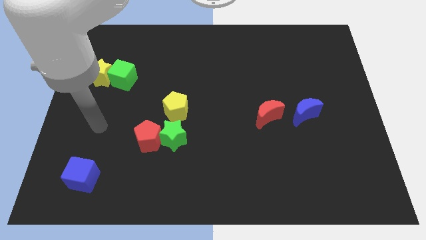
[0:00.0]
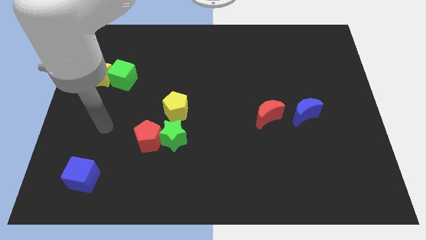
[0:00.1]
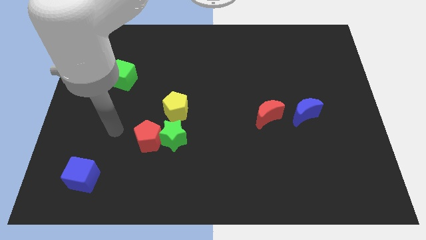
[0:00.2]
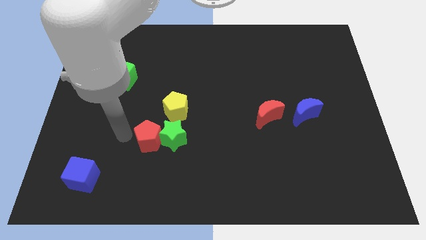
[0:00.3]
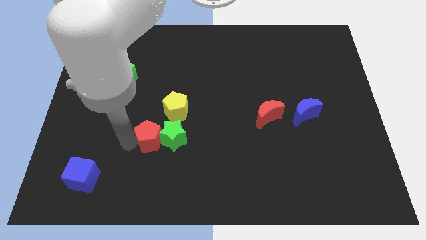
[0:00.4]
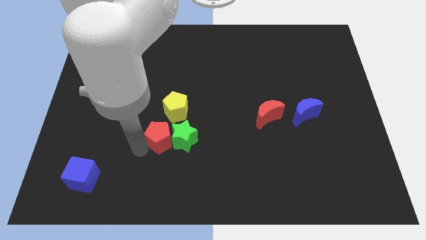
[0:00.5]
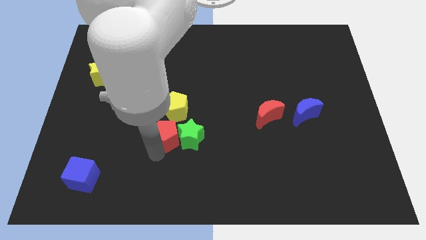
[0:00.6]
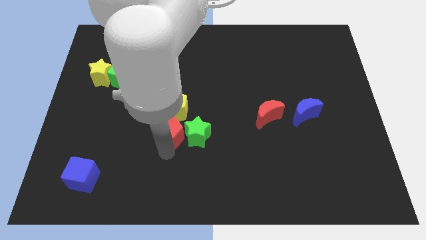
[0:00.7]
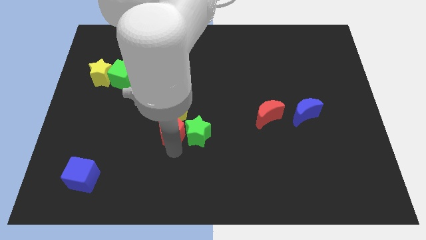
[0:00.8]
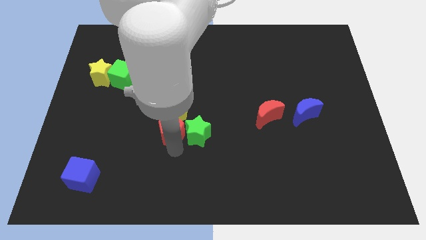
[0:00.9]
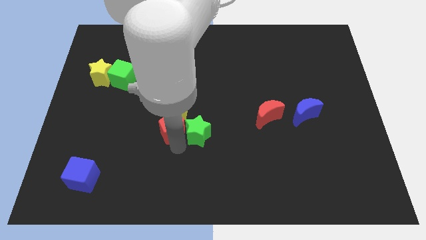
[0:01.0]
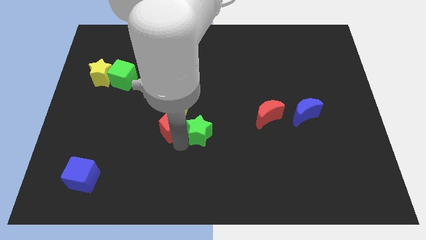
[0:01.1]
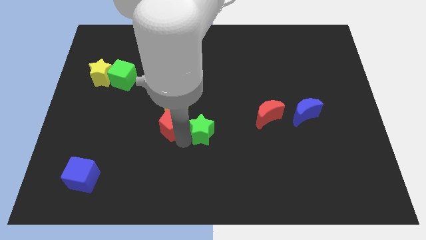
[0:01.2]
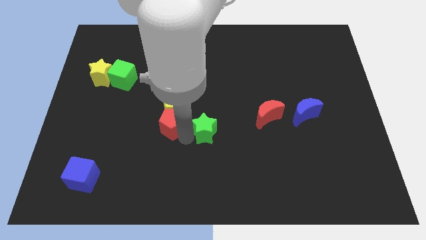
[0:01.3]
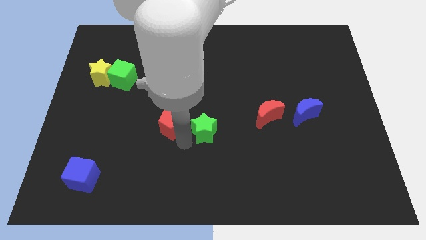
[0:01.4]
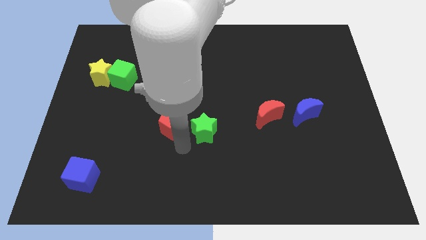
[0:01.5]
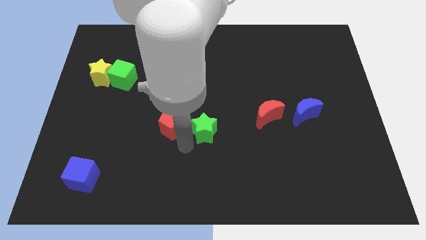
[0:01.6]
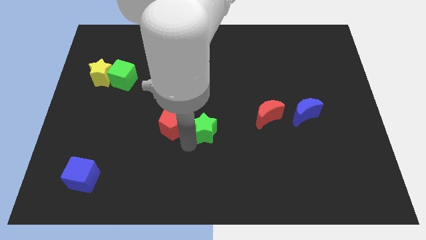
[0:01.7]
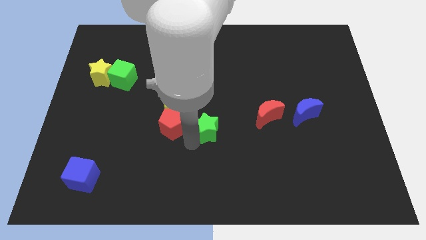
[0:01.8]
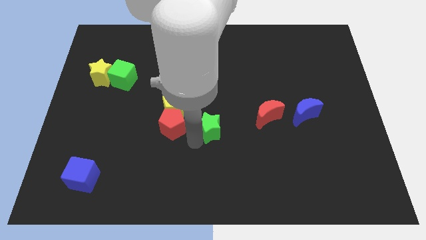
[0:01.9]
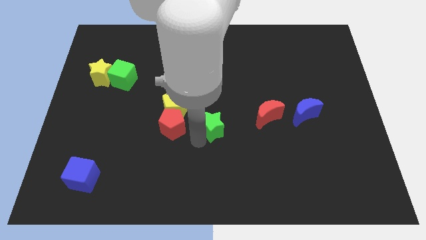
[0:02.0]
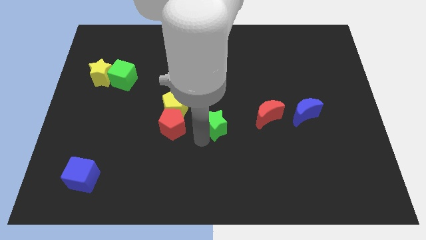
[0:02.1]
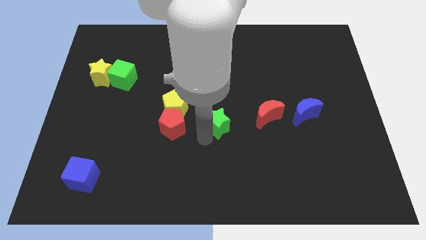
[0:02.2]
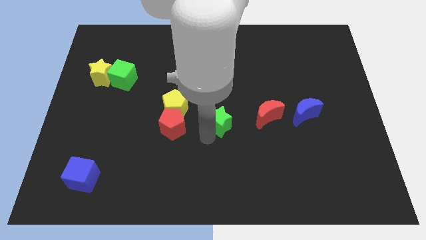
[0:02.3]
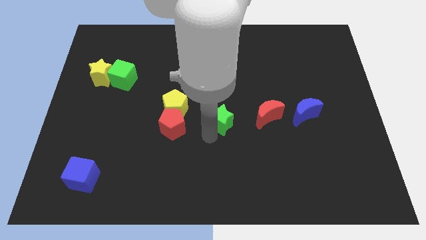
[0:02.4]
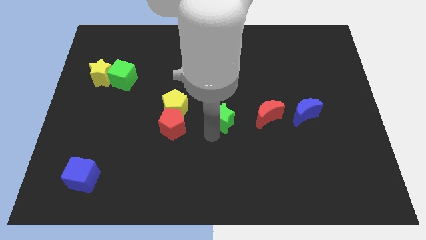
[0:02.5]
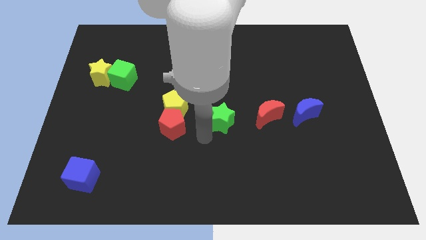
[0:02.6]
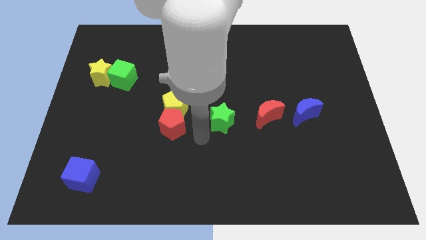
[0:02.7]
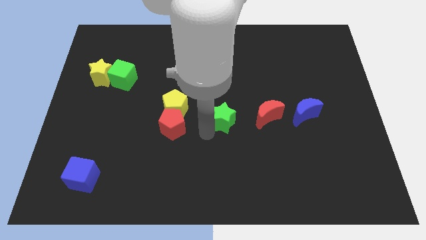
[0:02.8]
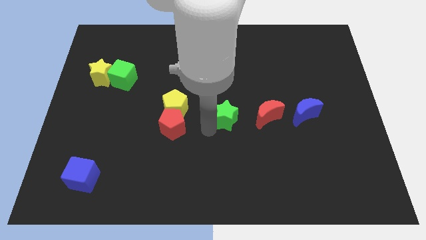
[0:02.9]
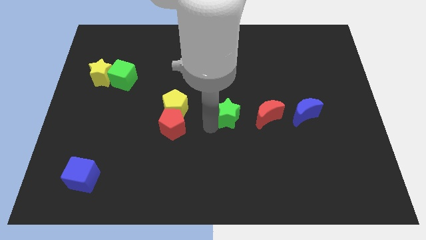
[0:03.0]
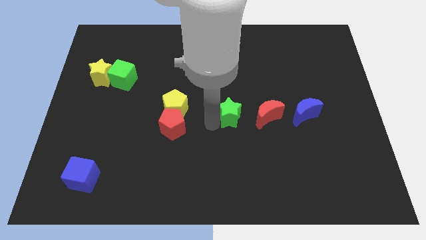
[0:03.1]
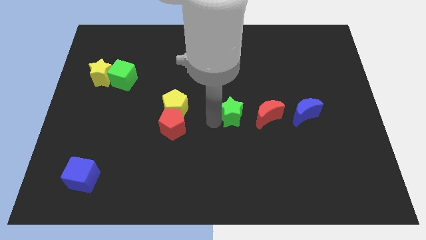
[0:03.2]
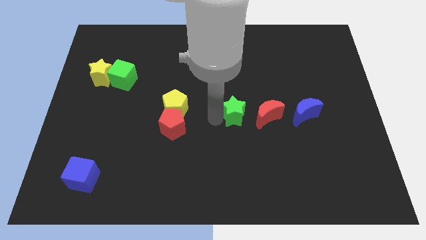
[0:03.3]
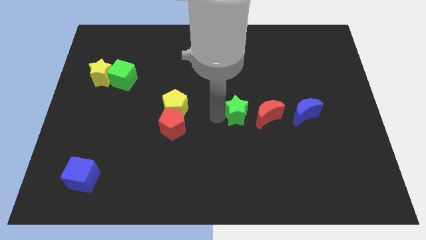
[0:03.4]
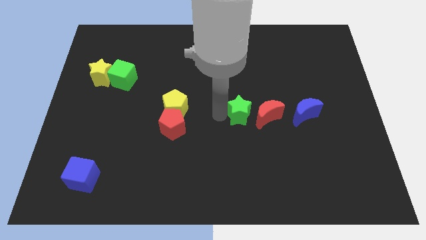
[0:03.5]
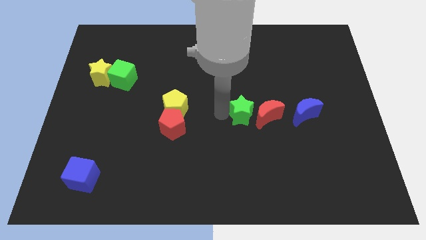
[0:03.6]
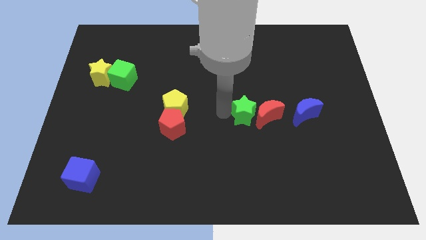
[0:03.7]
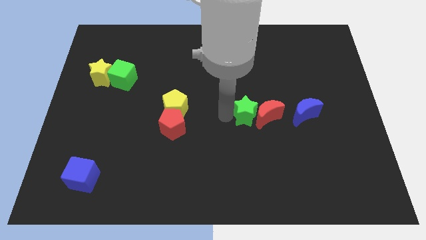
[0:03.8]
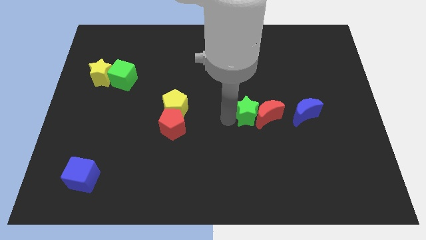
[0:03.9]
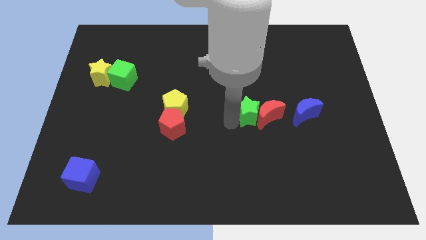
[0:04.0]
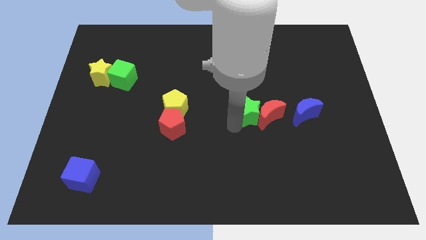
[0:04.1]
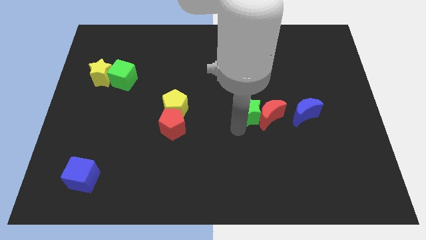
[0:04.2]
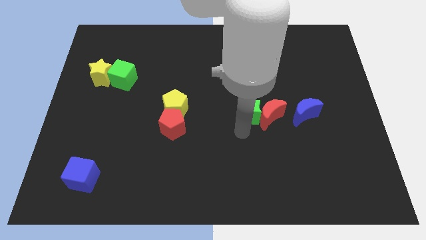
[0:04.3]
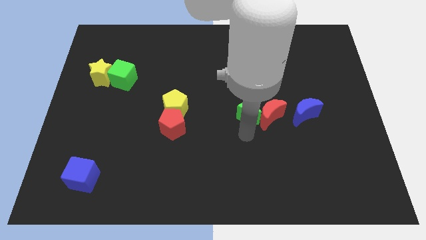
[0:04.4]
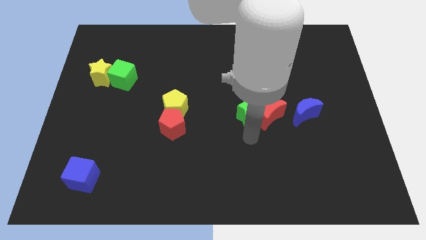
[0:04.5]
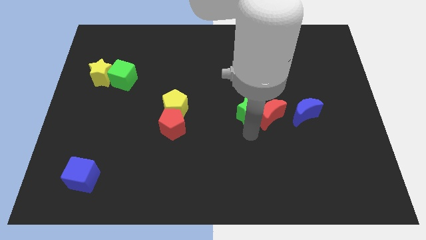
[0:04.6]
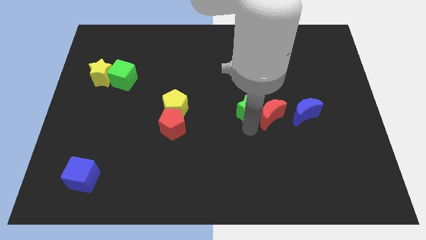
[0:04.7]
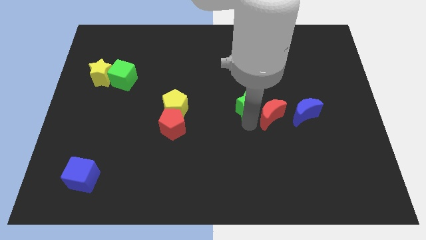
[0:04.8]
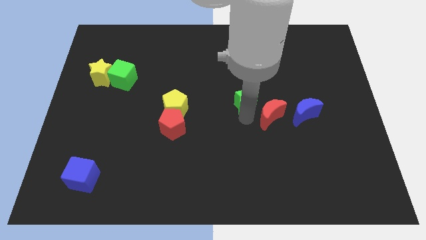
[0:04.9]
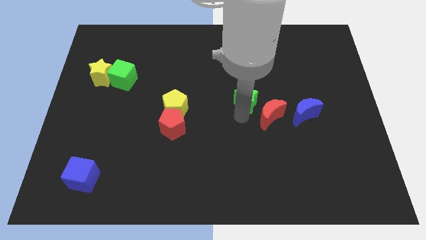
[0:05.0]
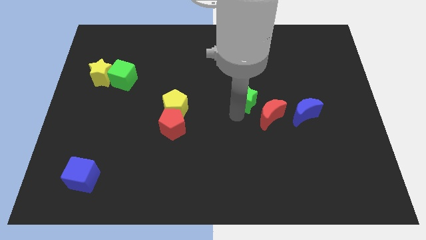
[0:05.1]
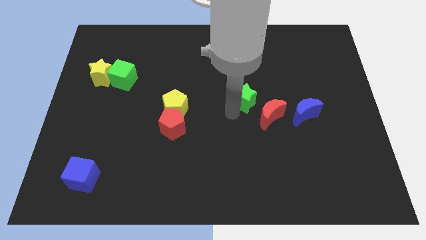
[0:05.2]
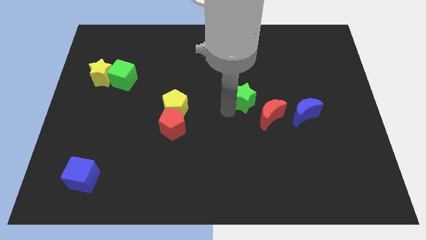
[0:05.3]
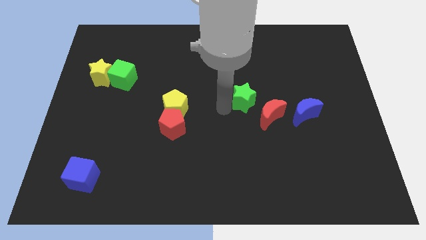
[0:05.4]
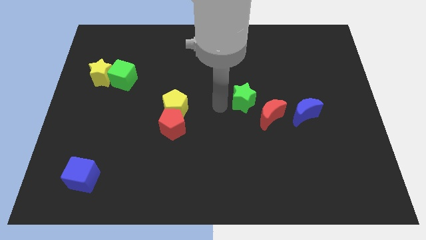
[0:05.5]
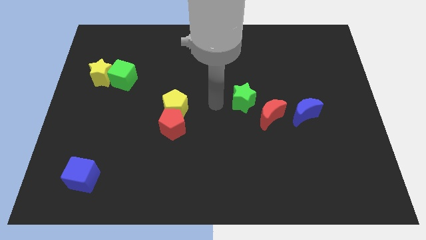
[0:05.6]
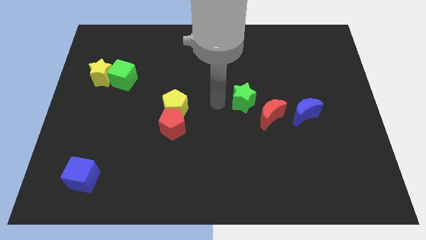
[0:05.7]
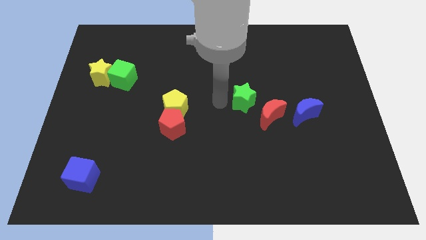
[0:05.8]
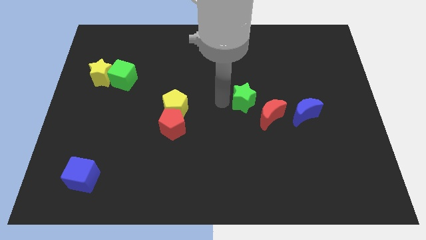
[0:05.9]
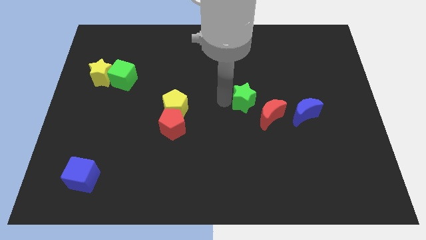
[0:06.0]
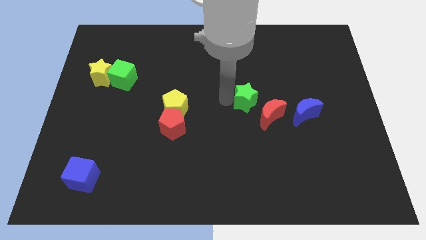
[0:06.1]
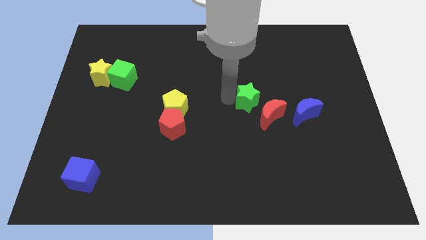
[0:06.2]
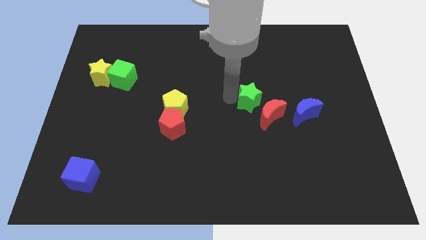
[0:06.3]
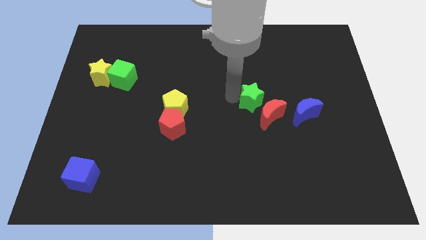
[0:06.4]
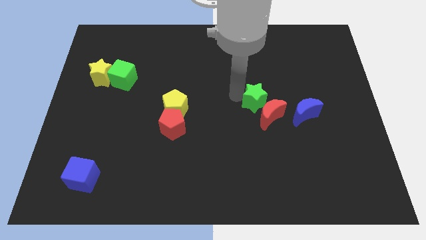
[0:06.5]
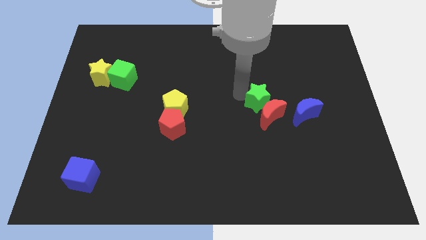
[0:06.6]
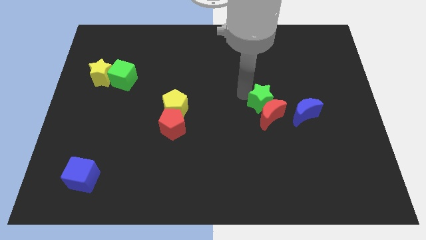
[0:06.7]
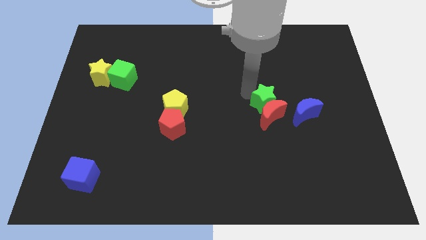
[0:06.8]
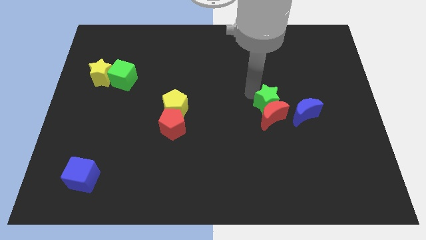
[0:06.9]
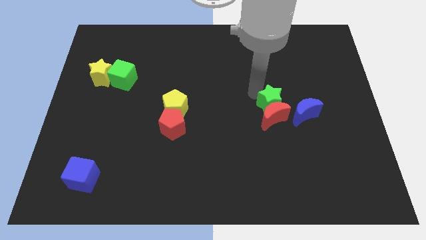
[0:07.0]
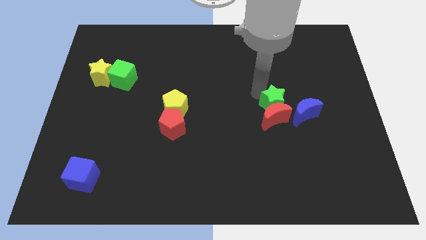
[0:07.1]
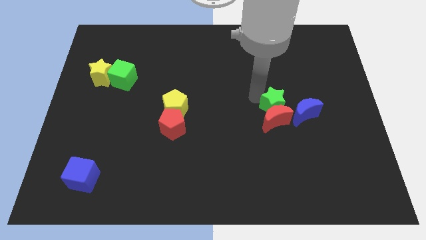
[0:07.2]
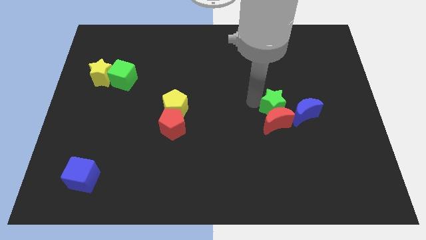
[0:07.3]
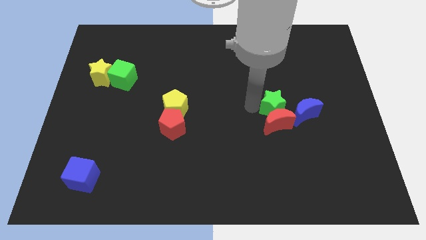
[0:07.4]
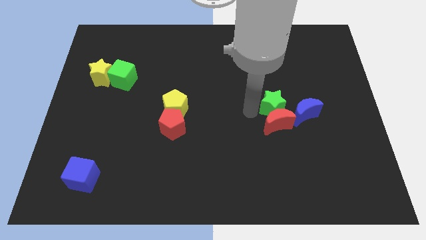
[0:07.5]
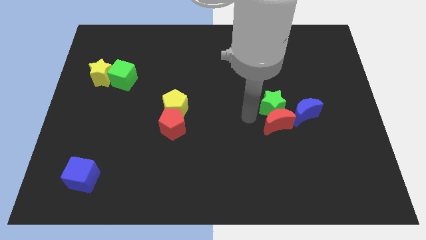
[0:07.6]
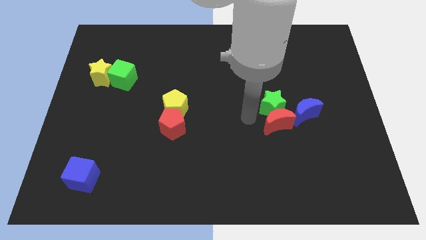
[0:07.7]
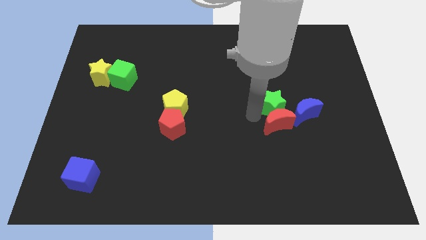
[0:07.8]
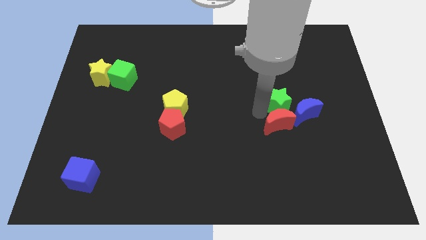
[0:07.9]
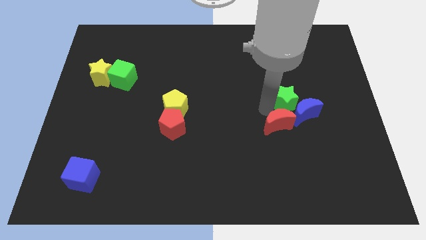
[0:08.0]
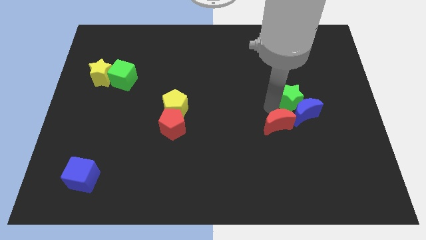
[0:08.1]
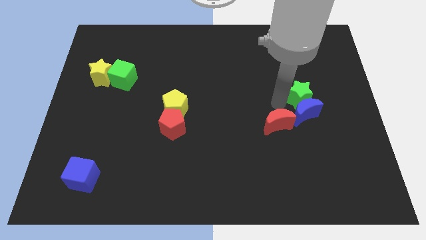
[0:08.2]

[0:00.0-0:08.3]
move the green star diagonally up and to the right of the blue moon
